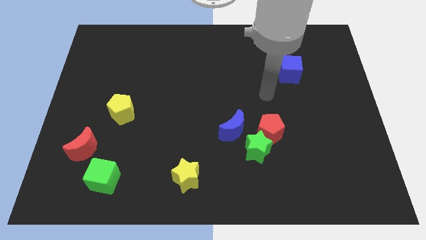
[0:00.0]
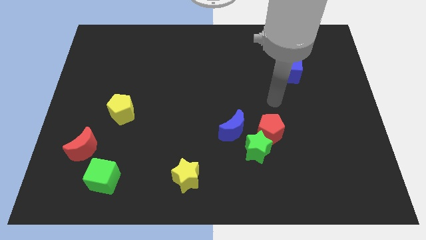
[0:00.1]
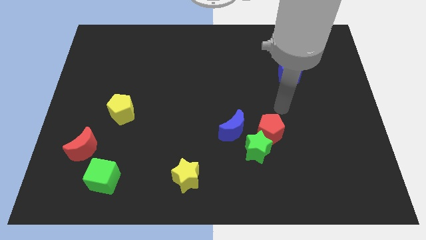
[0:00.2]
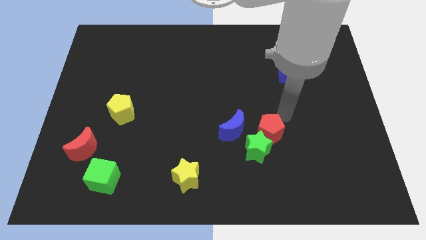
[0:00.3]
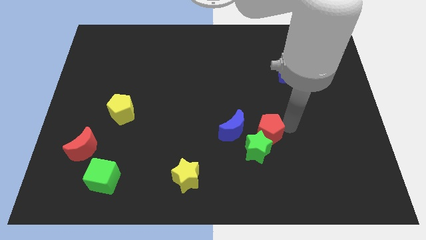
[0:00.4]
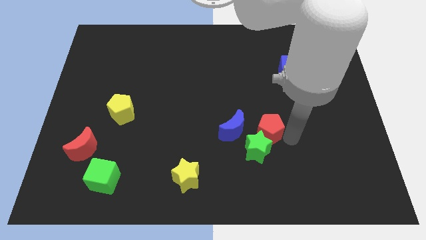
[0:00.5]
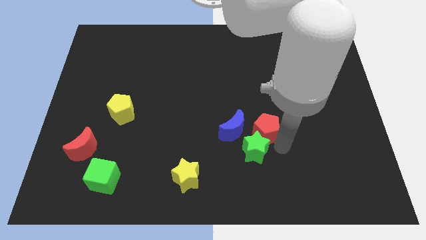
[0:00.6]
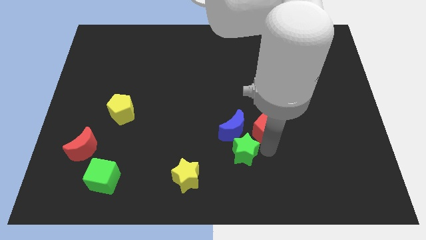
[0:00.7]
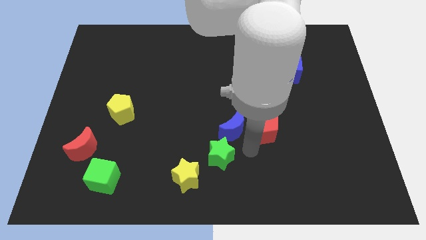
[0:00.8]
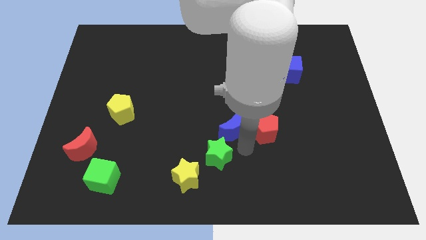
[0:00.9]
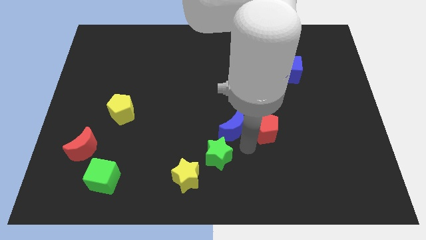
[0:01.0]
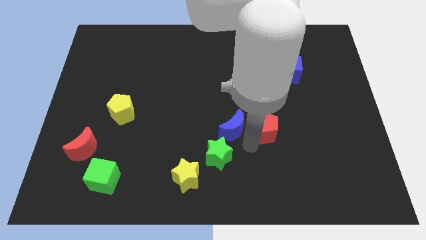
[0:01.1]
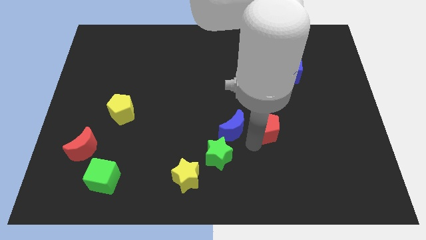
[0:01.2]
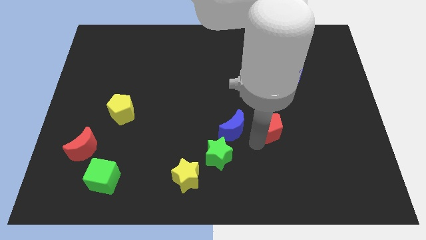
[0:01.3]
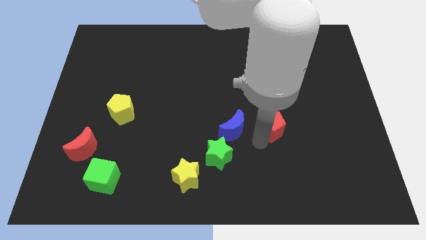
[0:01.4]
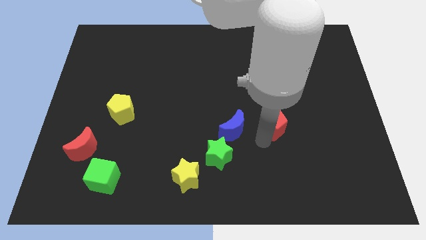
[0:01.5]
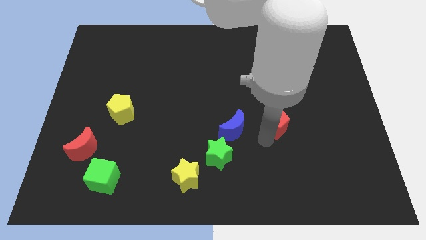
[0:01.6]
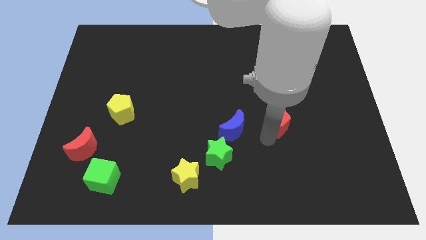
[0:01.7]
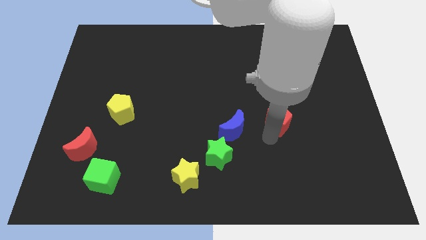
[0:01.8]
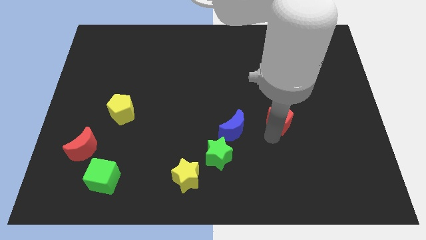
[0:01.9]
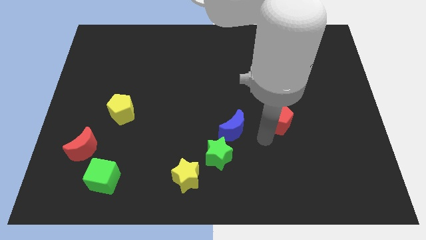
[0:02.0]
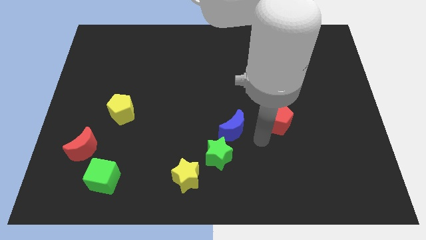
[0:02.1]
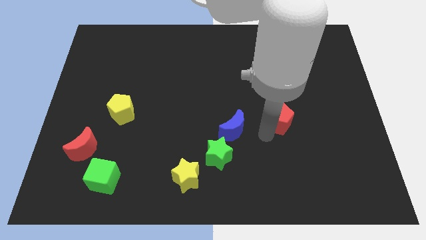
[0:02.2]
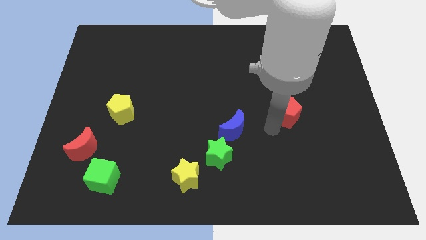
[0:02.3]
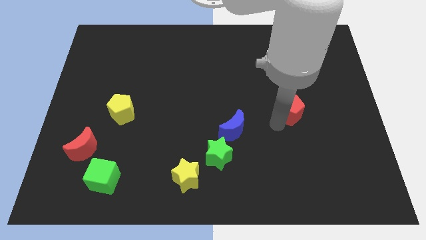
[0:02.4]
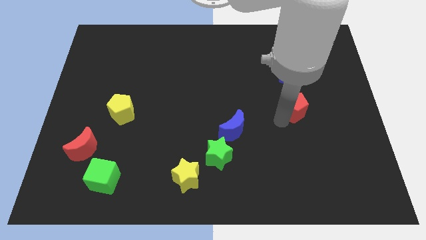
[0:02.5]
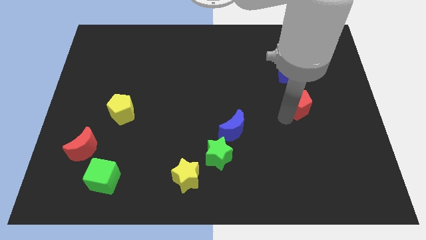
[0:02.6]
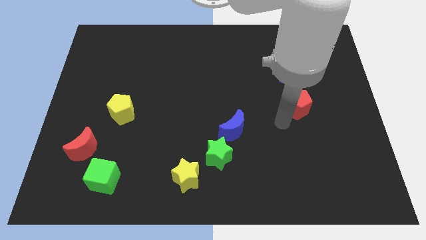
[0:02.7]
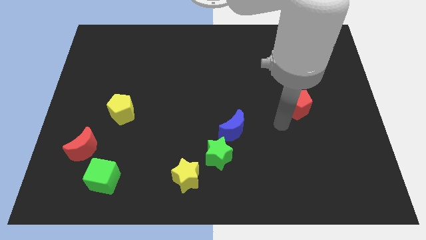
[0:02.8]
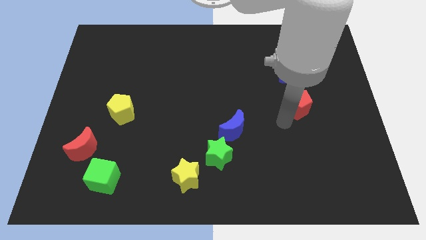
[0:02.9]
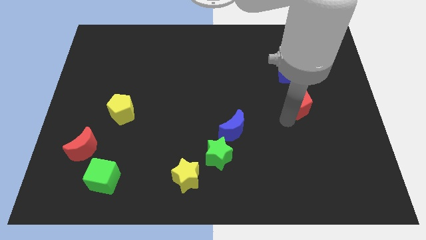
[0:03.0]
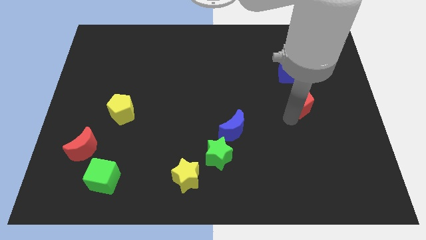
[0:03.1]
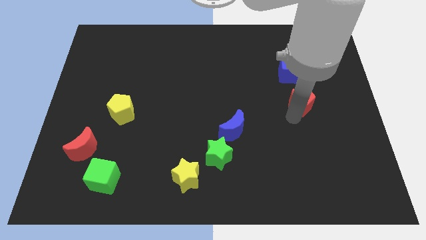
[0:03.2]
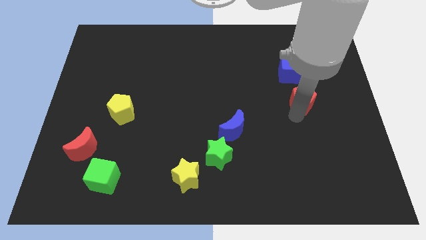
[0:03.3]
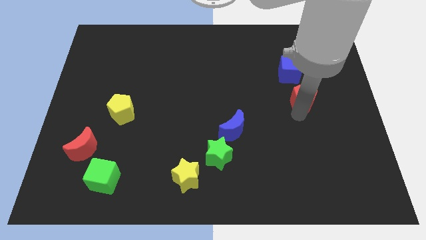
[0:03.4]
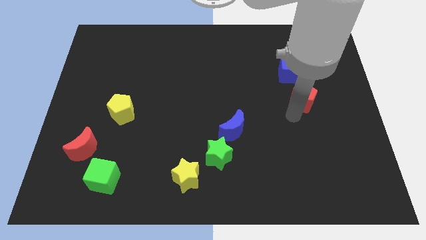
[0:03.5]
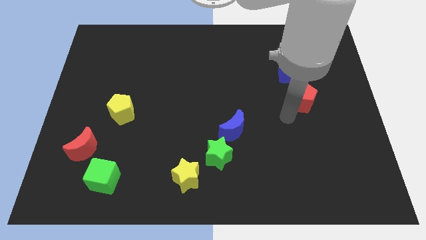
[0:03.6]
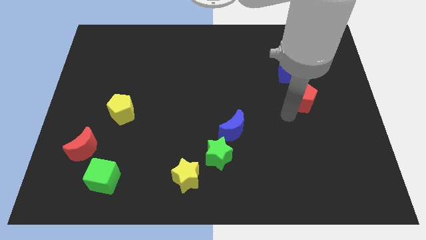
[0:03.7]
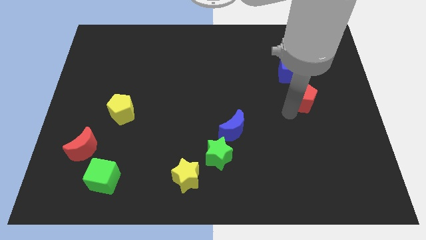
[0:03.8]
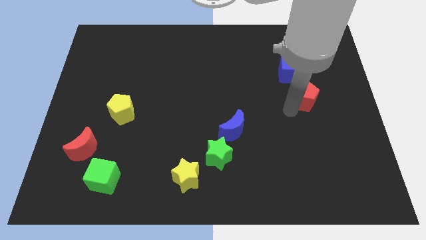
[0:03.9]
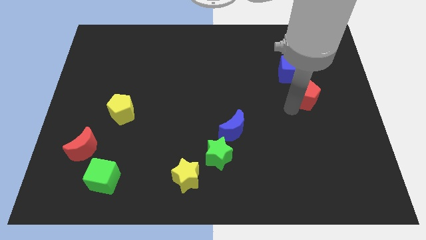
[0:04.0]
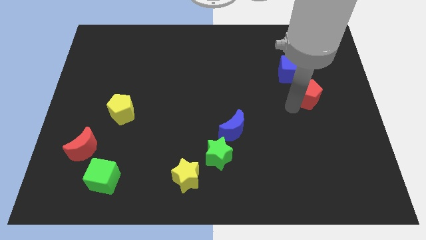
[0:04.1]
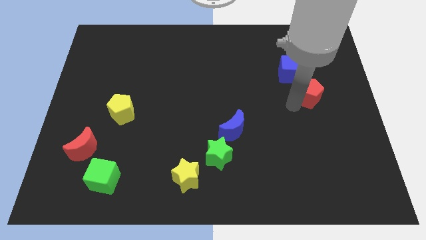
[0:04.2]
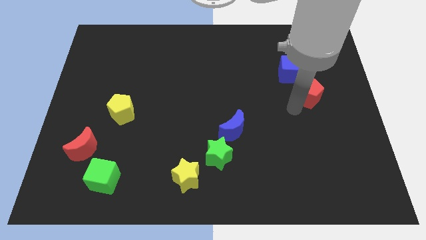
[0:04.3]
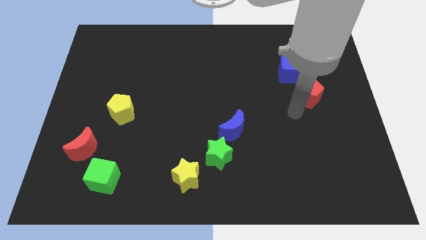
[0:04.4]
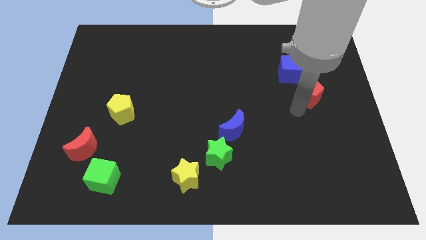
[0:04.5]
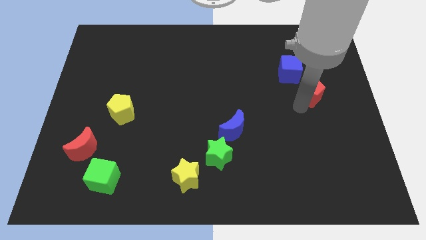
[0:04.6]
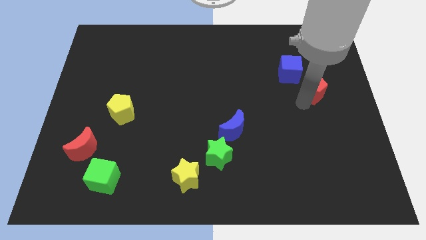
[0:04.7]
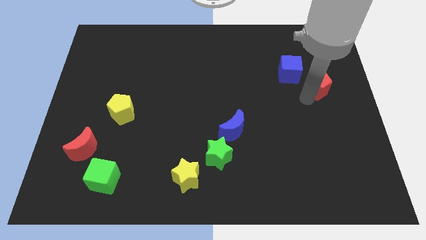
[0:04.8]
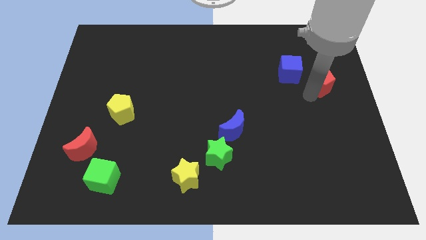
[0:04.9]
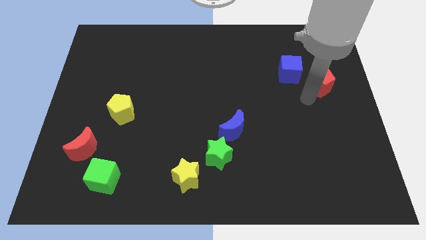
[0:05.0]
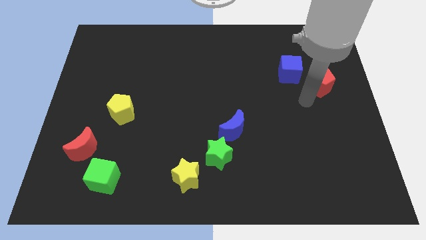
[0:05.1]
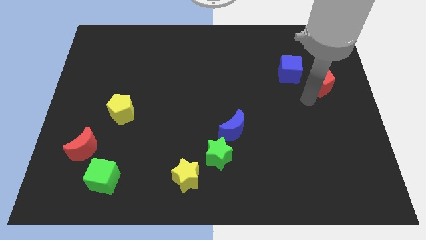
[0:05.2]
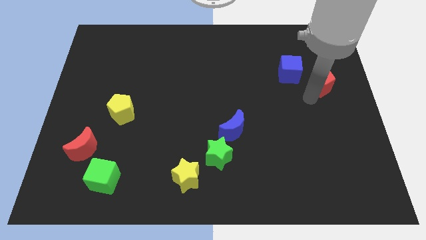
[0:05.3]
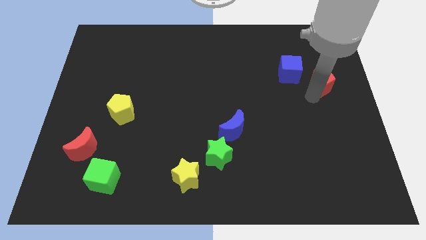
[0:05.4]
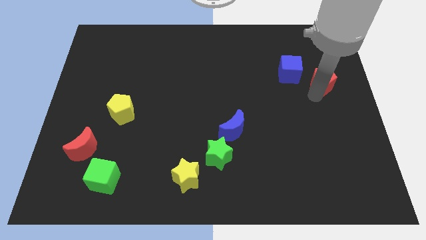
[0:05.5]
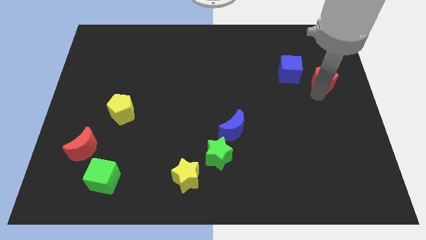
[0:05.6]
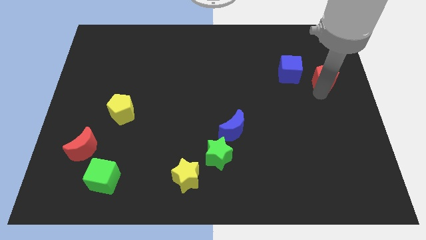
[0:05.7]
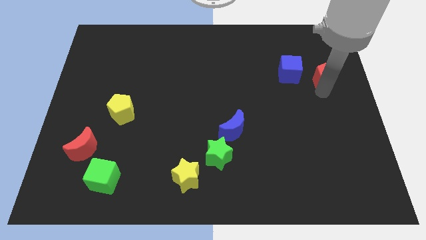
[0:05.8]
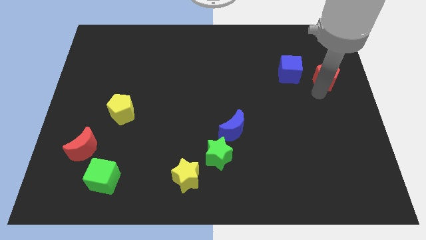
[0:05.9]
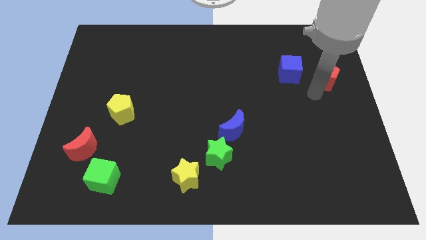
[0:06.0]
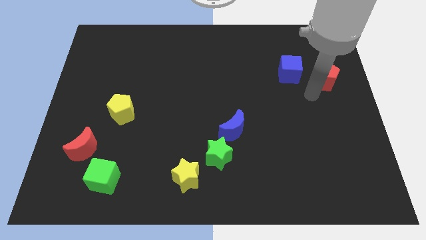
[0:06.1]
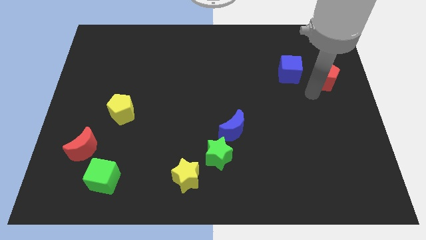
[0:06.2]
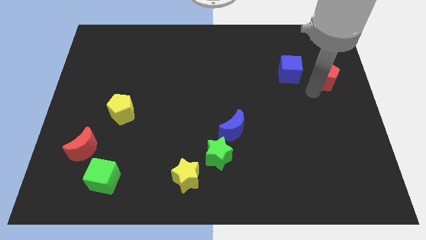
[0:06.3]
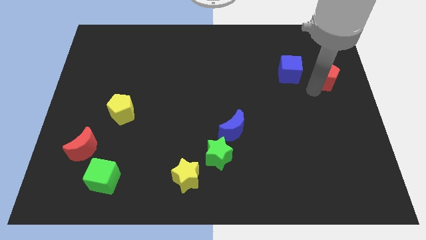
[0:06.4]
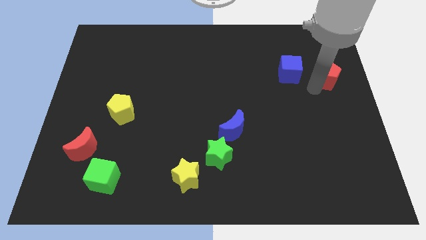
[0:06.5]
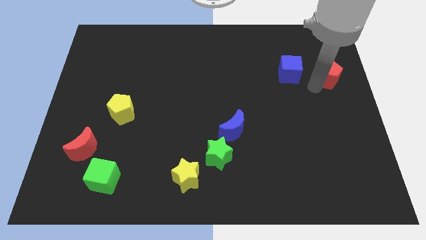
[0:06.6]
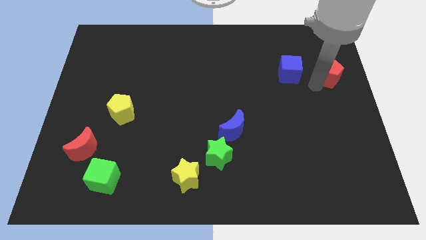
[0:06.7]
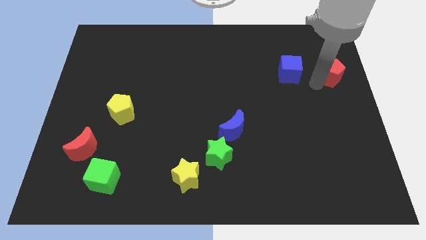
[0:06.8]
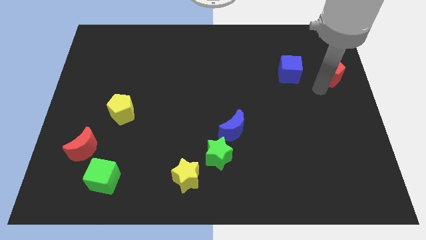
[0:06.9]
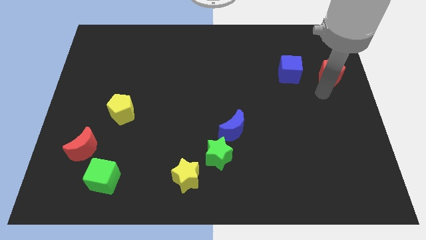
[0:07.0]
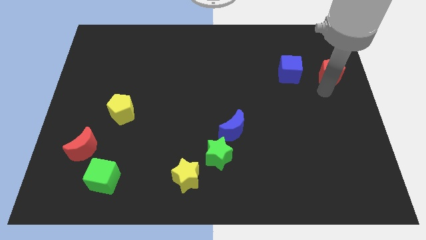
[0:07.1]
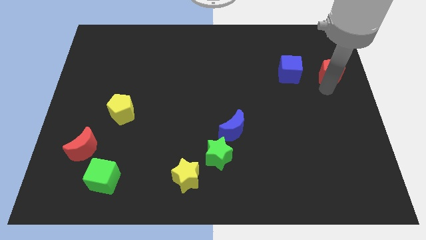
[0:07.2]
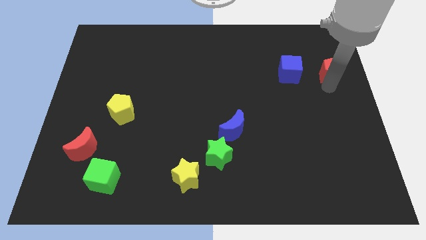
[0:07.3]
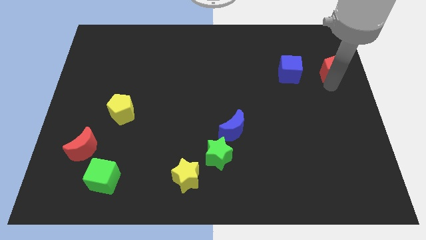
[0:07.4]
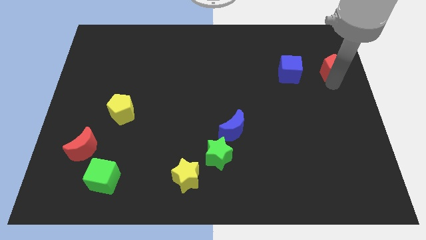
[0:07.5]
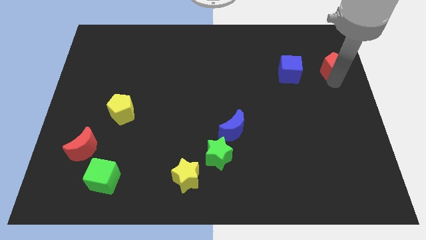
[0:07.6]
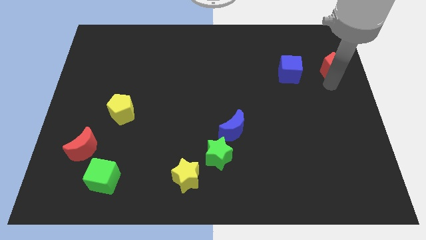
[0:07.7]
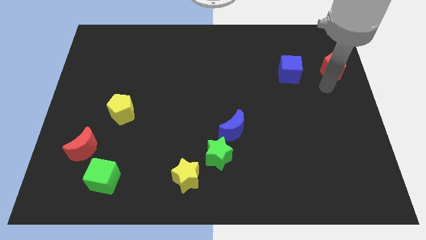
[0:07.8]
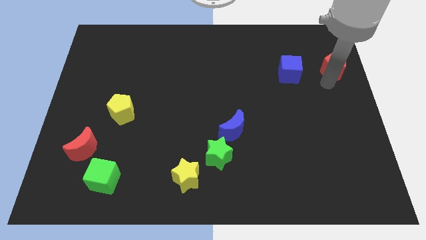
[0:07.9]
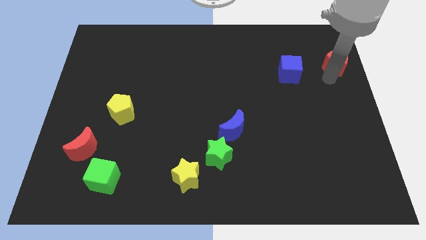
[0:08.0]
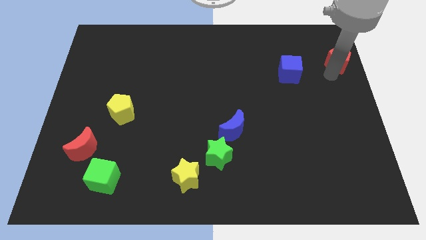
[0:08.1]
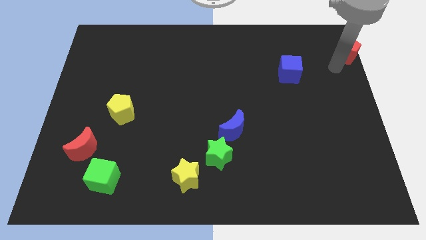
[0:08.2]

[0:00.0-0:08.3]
move the red pentagon to the upper right corner
